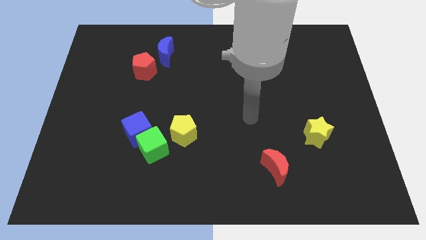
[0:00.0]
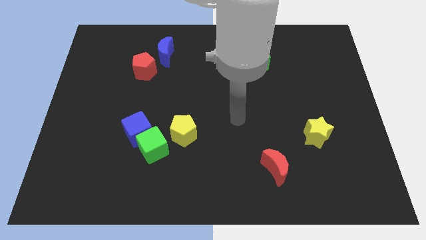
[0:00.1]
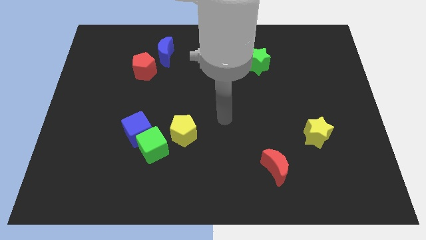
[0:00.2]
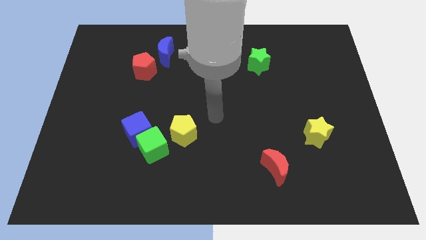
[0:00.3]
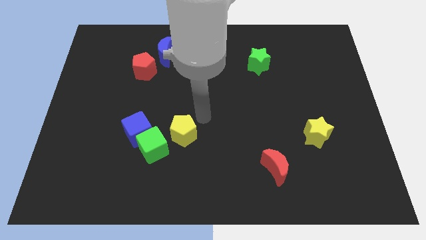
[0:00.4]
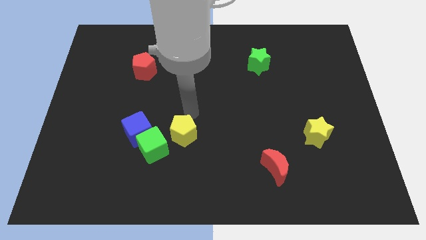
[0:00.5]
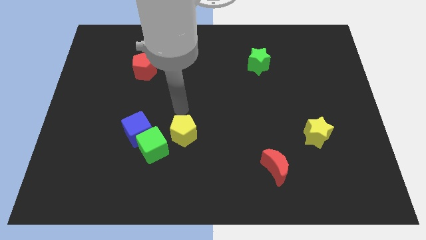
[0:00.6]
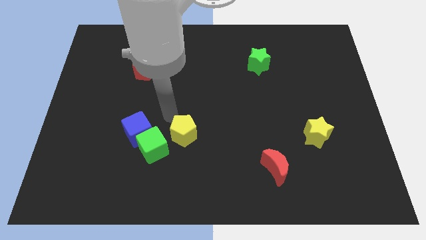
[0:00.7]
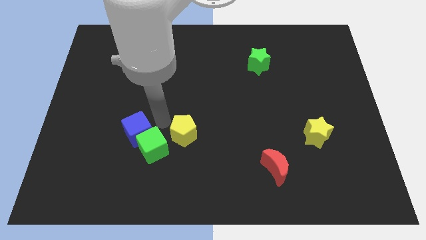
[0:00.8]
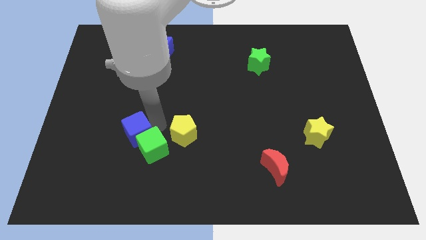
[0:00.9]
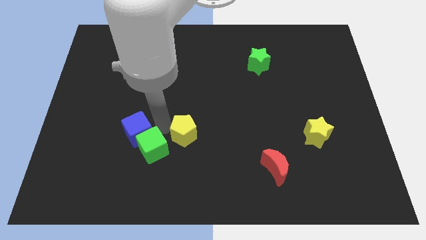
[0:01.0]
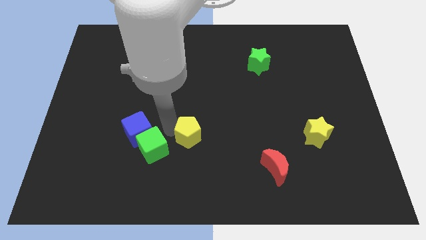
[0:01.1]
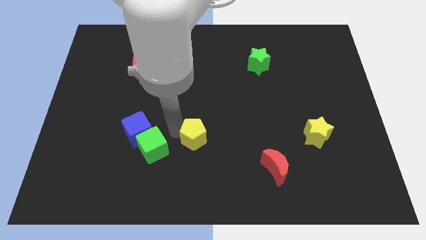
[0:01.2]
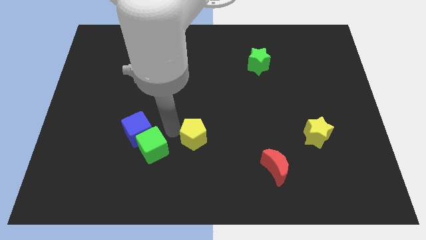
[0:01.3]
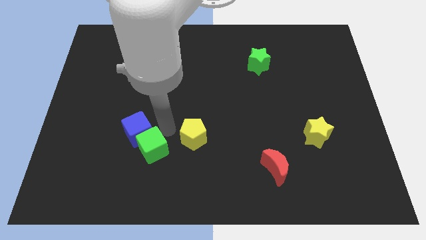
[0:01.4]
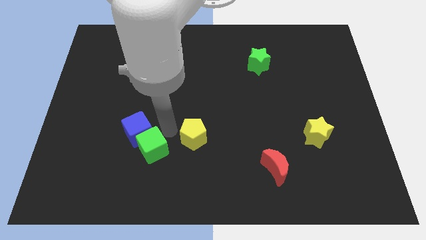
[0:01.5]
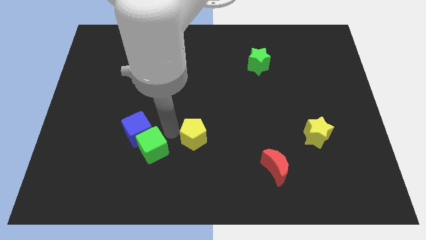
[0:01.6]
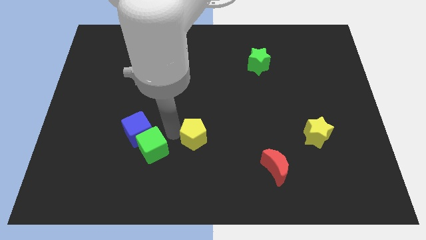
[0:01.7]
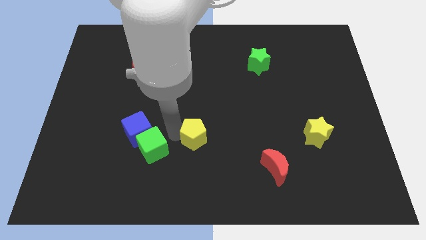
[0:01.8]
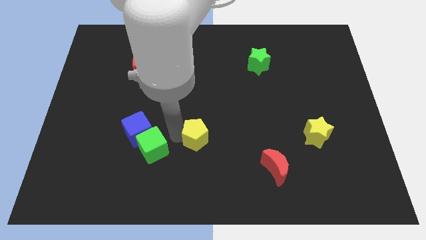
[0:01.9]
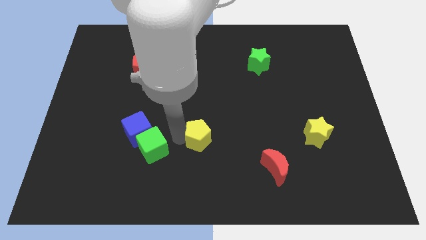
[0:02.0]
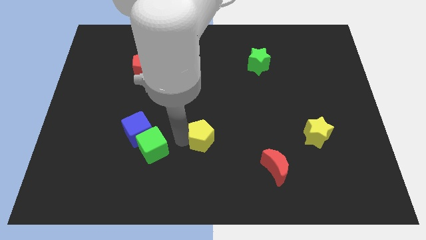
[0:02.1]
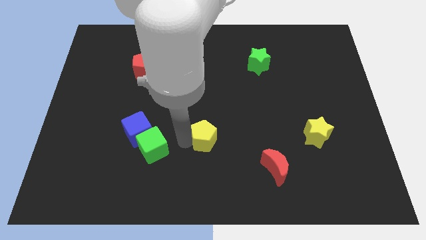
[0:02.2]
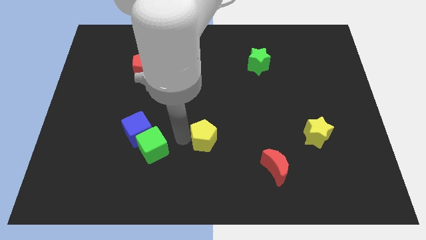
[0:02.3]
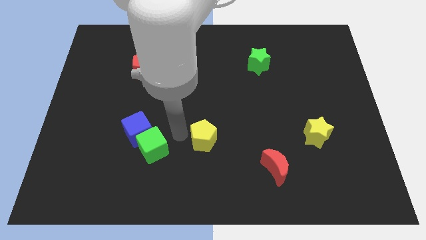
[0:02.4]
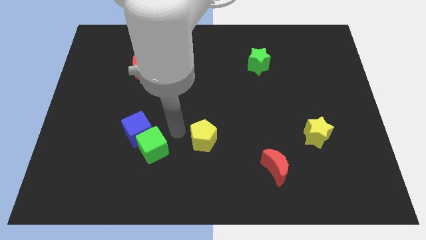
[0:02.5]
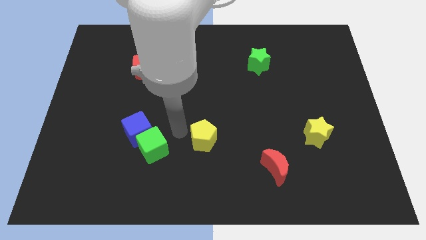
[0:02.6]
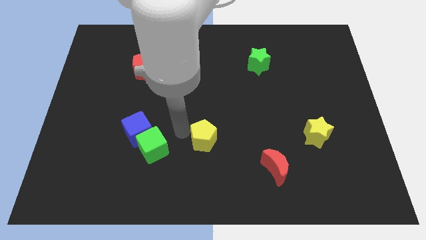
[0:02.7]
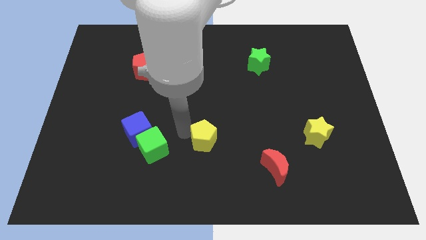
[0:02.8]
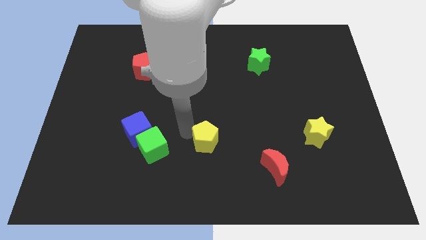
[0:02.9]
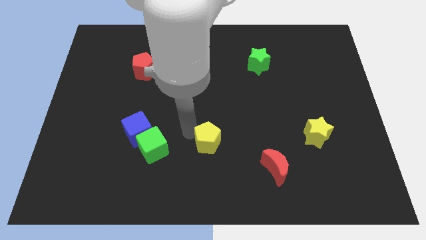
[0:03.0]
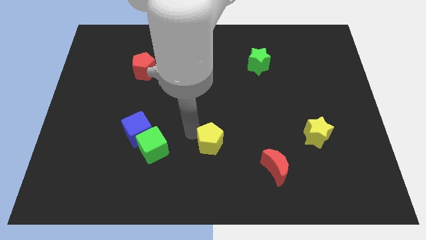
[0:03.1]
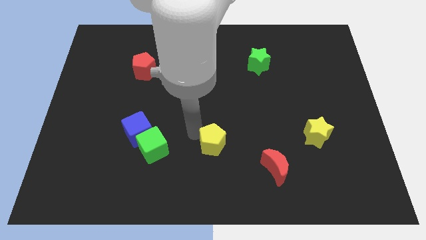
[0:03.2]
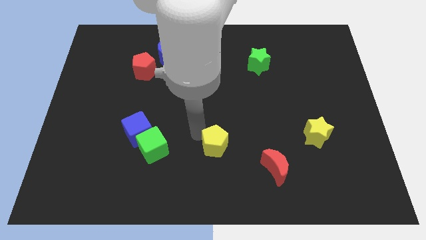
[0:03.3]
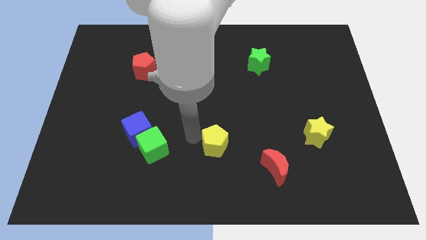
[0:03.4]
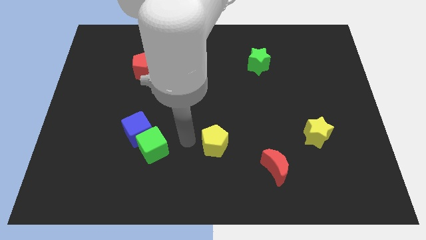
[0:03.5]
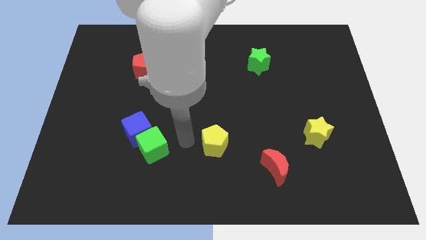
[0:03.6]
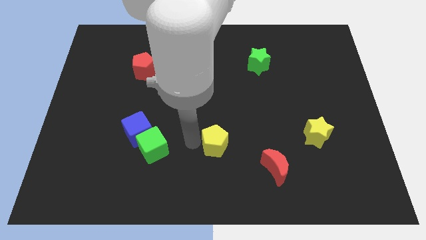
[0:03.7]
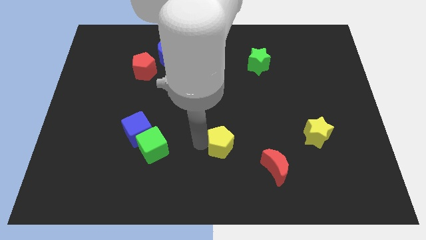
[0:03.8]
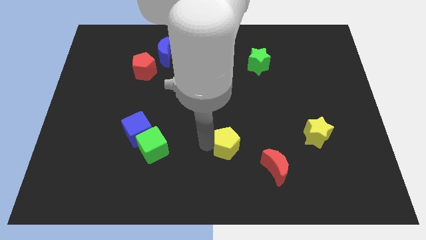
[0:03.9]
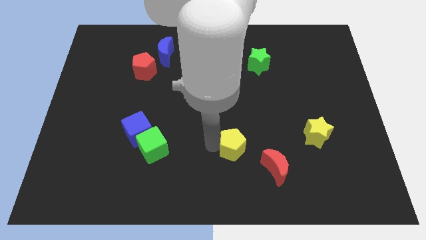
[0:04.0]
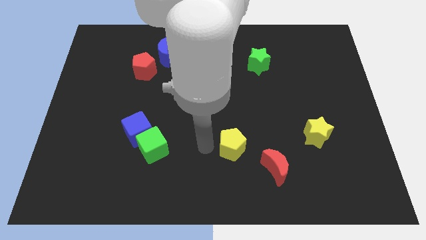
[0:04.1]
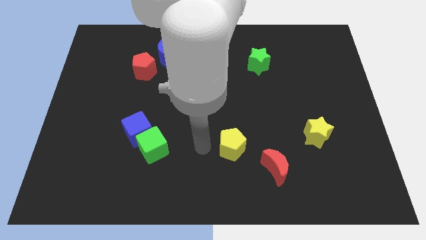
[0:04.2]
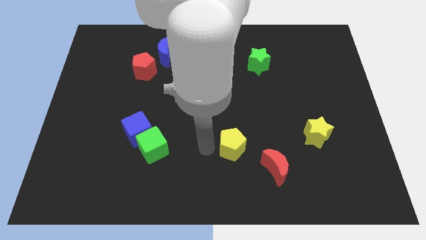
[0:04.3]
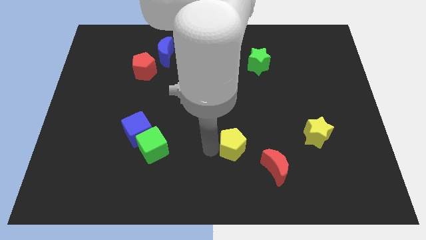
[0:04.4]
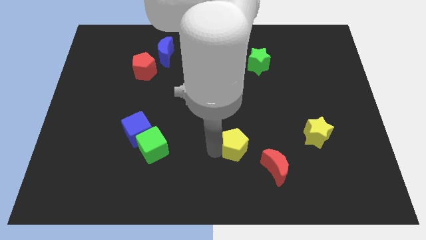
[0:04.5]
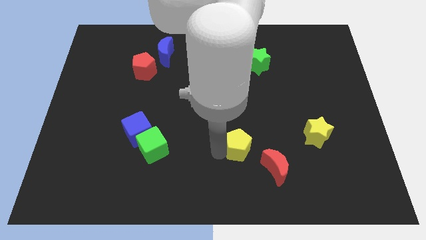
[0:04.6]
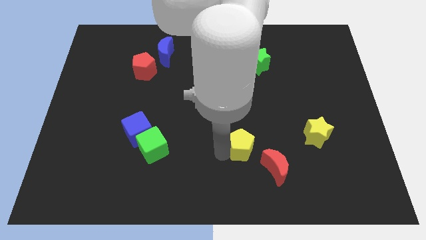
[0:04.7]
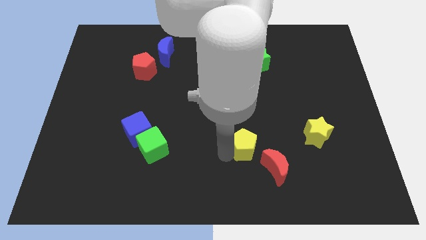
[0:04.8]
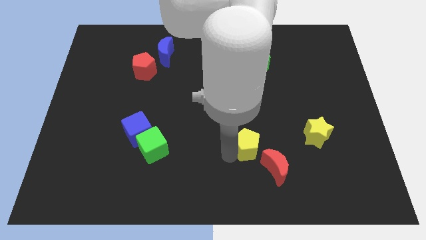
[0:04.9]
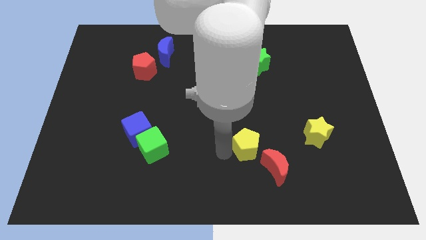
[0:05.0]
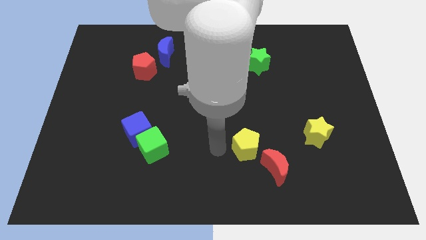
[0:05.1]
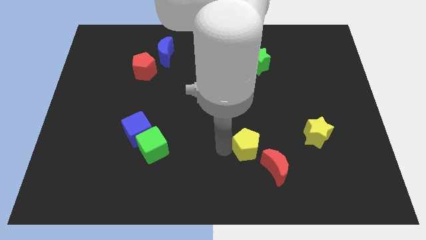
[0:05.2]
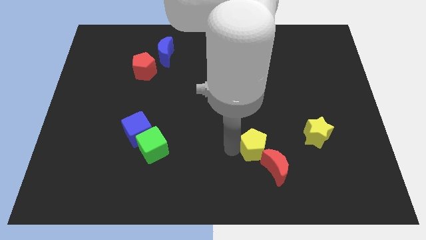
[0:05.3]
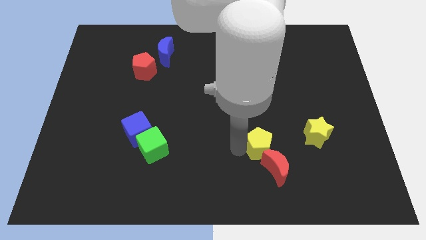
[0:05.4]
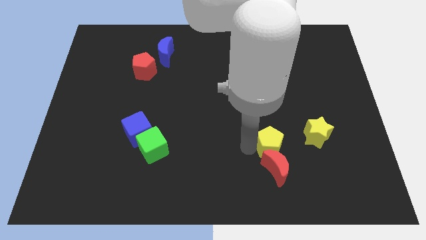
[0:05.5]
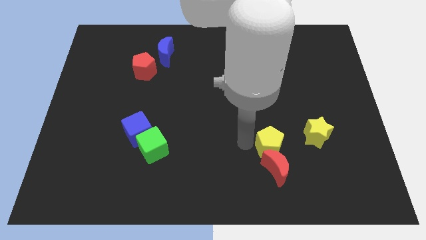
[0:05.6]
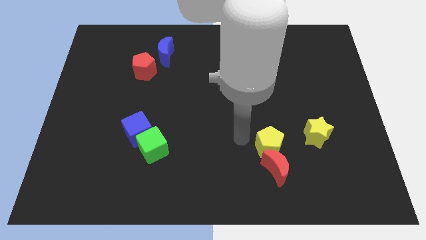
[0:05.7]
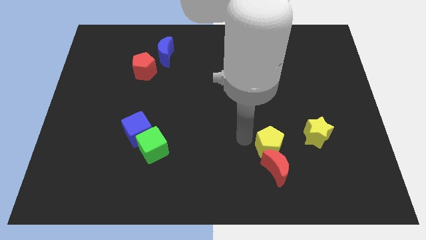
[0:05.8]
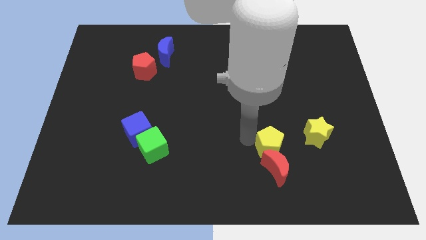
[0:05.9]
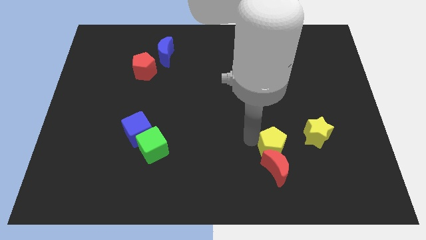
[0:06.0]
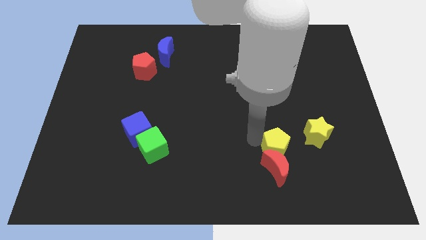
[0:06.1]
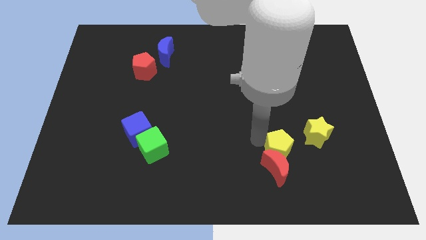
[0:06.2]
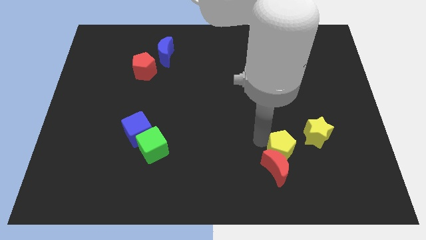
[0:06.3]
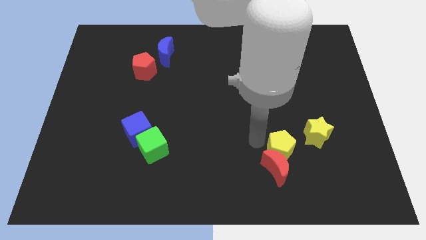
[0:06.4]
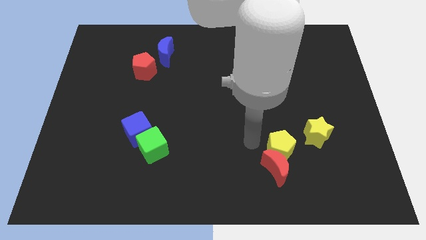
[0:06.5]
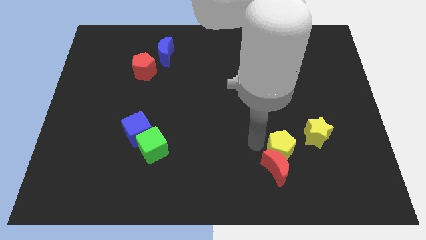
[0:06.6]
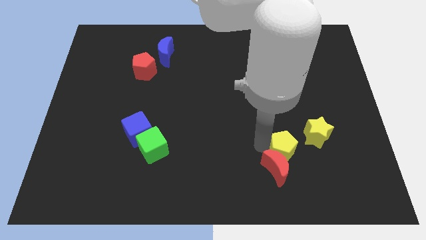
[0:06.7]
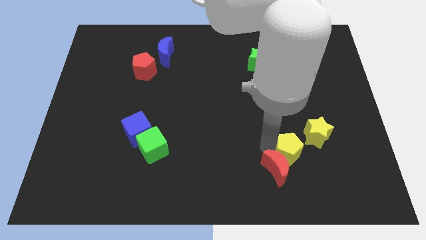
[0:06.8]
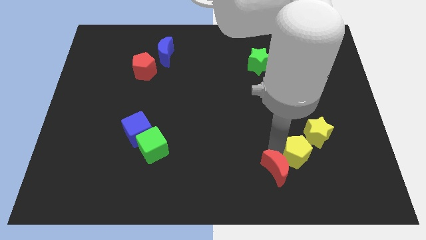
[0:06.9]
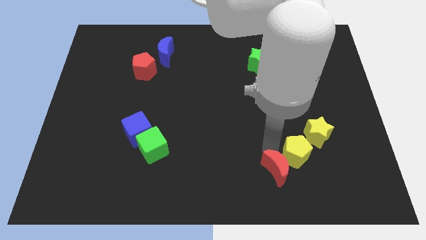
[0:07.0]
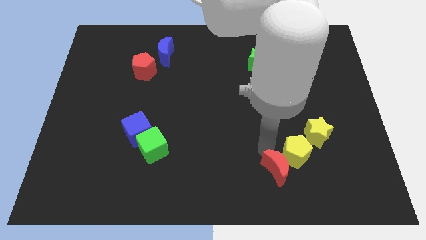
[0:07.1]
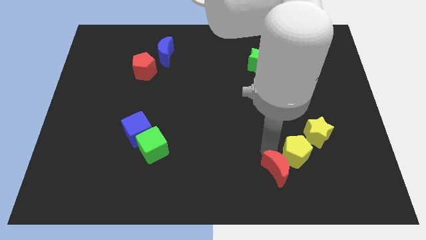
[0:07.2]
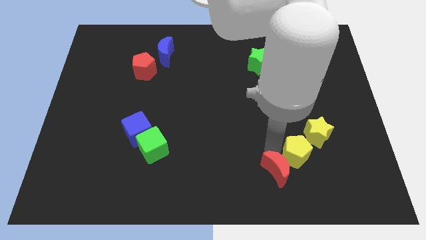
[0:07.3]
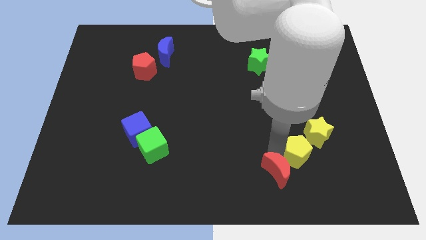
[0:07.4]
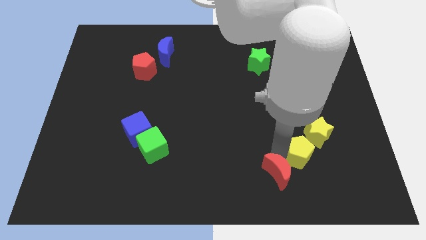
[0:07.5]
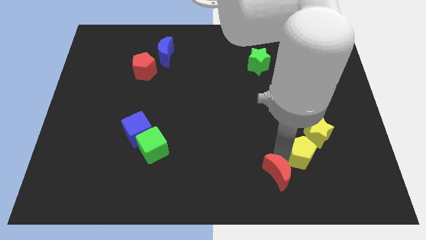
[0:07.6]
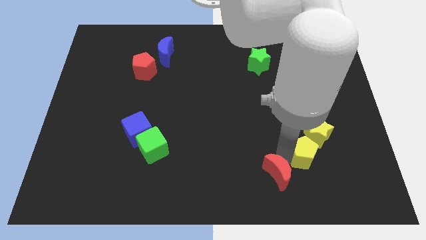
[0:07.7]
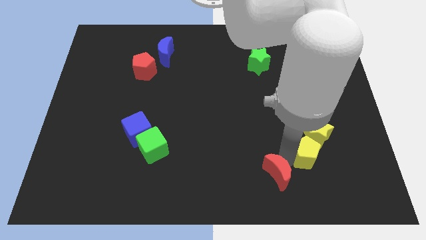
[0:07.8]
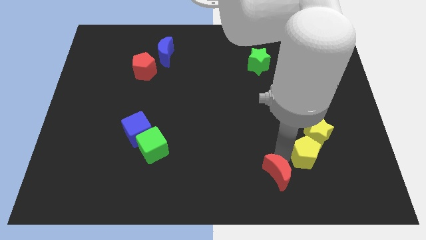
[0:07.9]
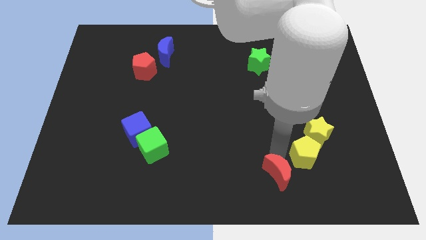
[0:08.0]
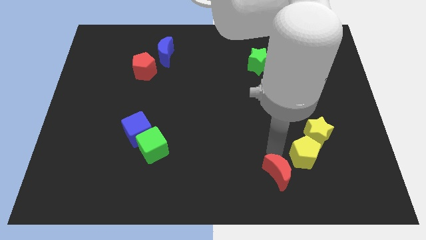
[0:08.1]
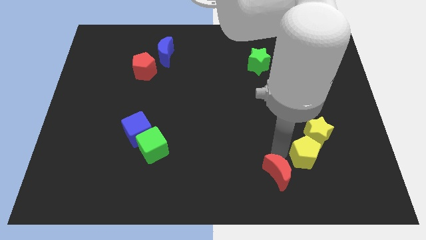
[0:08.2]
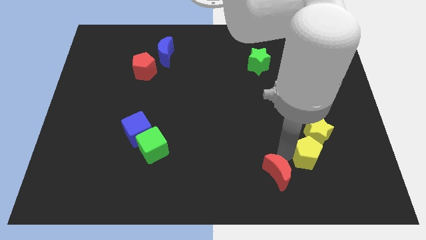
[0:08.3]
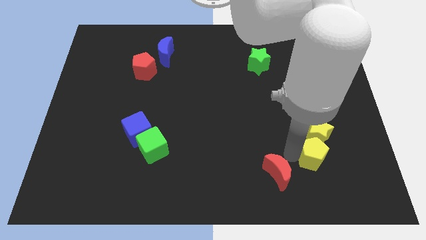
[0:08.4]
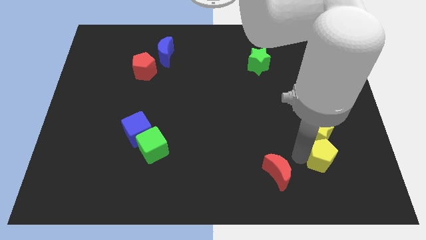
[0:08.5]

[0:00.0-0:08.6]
move the yellow pentagon to the bottom right side of the yellow star
